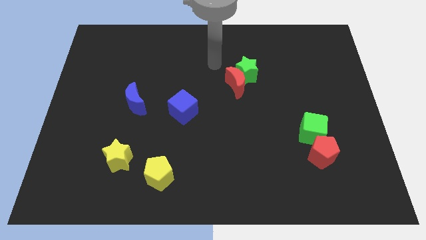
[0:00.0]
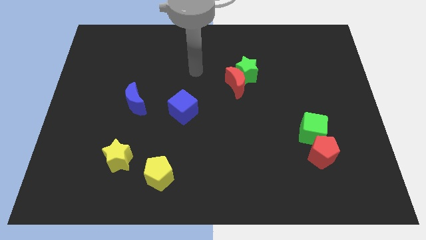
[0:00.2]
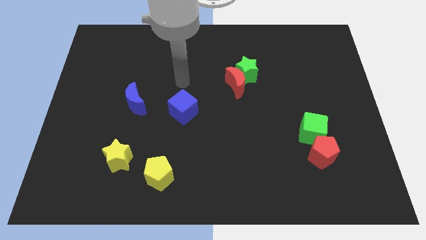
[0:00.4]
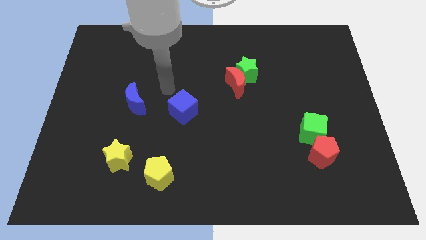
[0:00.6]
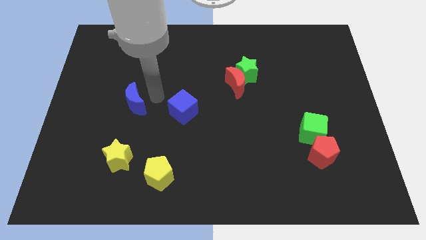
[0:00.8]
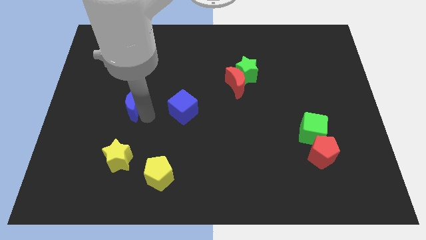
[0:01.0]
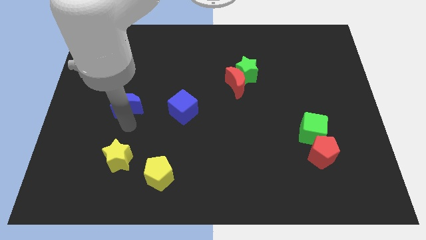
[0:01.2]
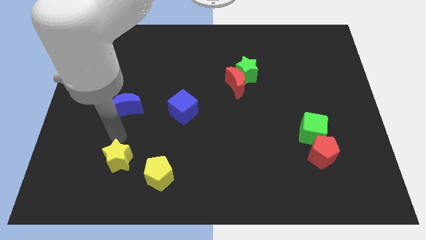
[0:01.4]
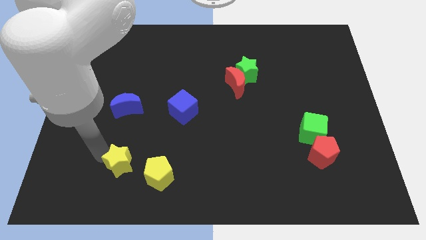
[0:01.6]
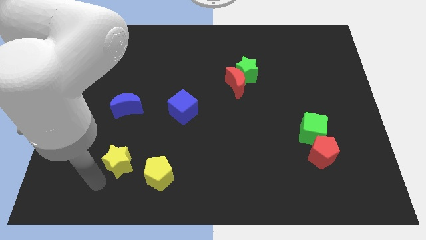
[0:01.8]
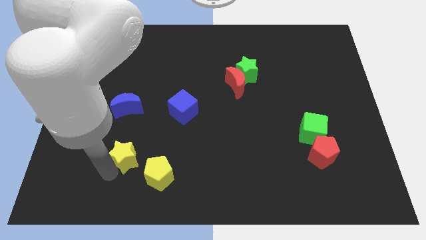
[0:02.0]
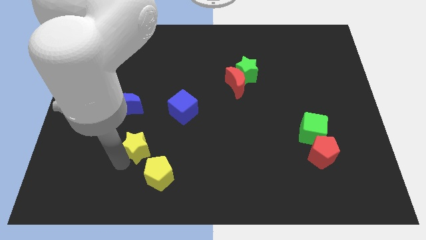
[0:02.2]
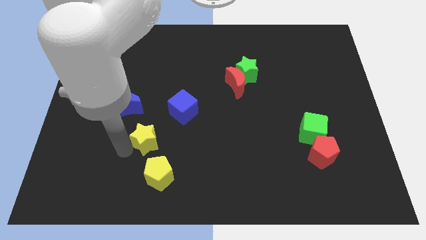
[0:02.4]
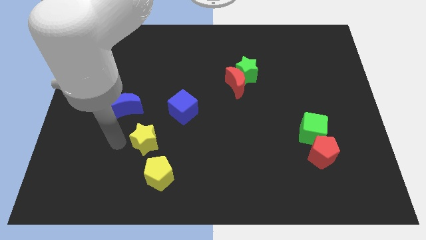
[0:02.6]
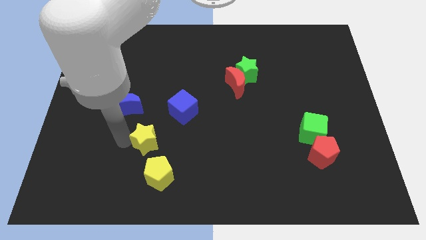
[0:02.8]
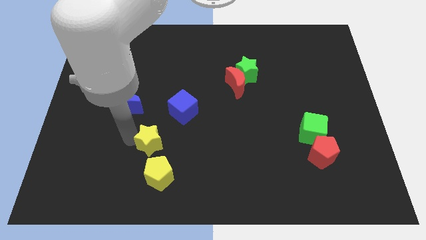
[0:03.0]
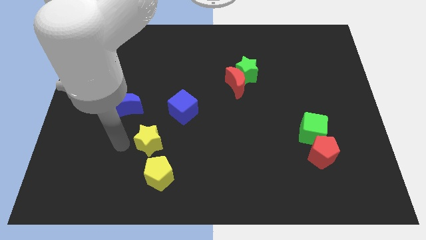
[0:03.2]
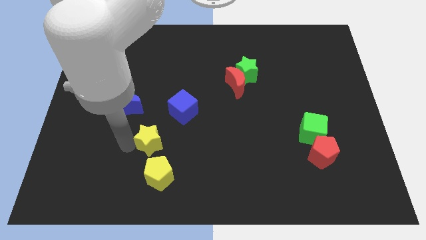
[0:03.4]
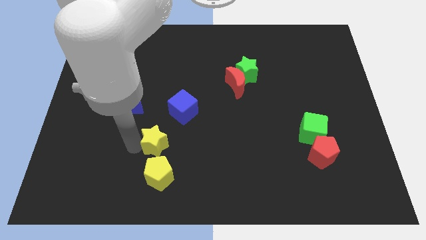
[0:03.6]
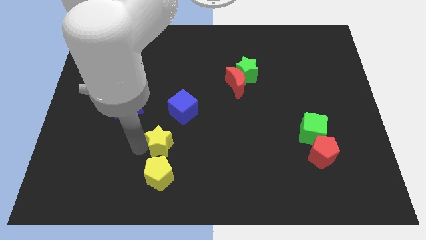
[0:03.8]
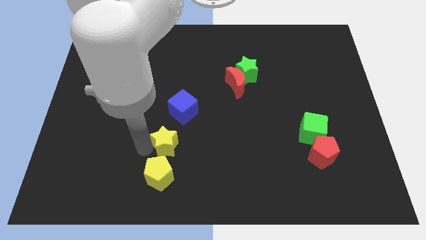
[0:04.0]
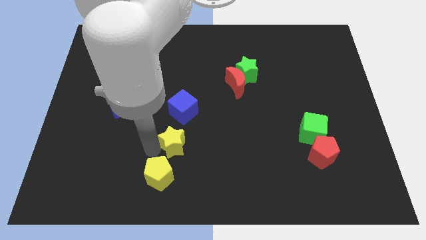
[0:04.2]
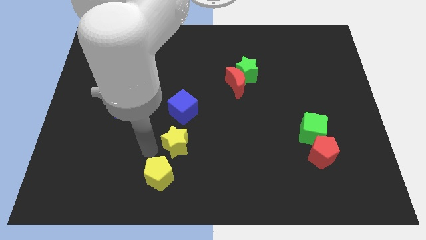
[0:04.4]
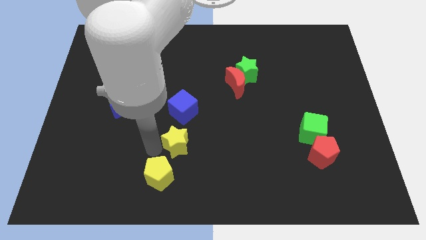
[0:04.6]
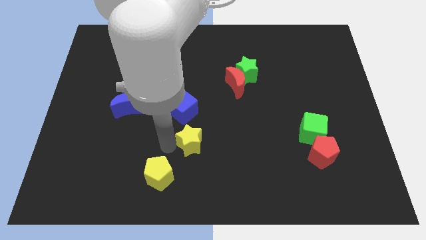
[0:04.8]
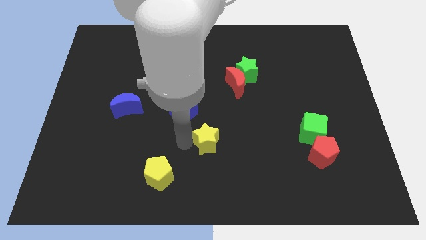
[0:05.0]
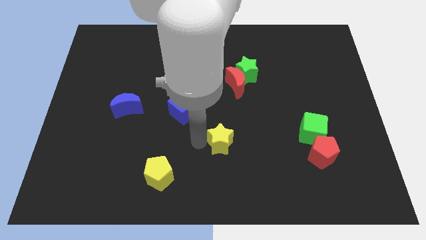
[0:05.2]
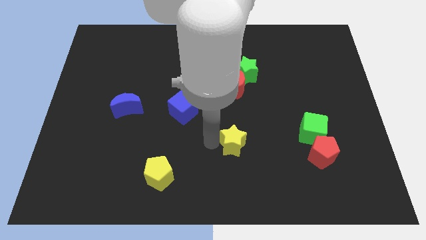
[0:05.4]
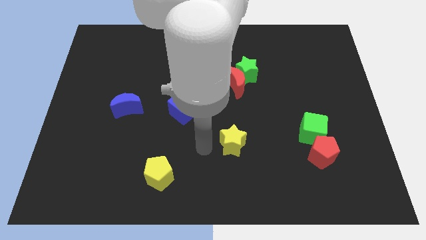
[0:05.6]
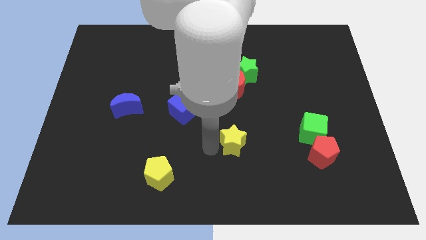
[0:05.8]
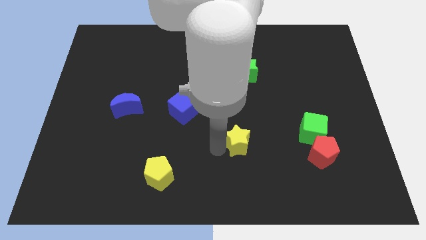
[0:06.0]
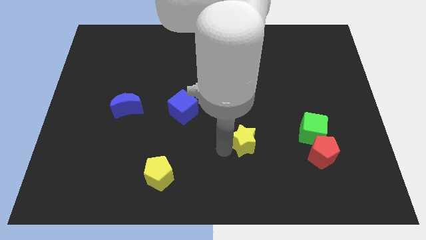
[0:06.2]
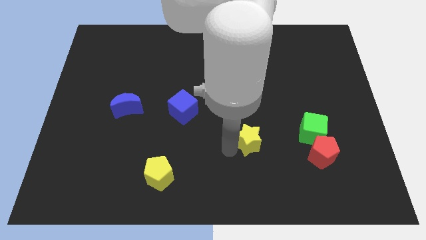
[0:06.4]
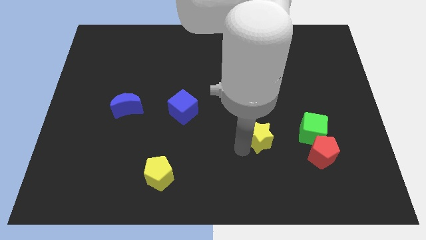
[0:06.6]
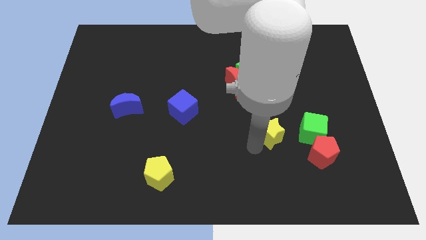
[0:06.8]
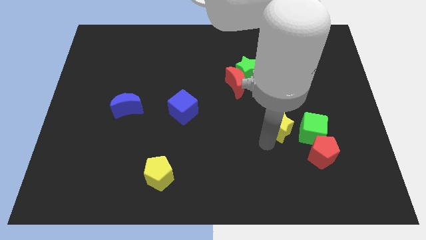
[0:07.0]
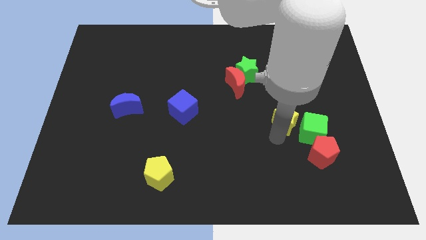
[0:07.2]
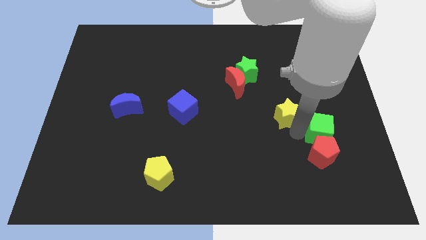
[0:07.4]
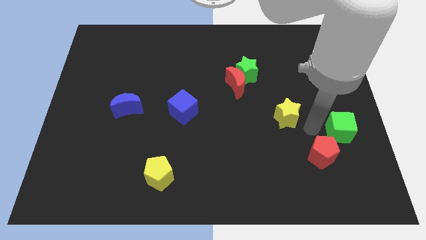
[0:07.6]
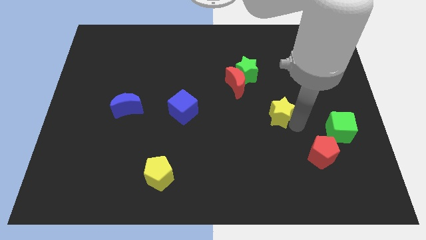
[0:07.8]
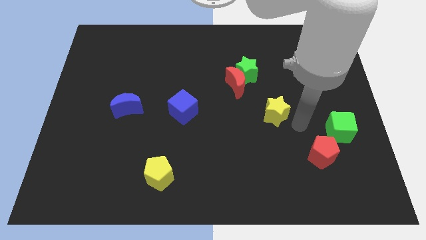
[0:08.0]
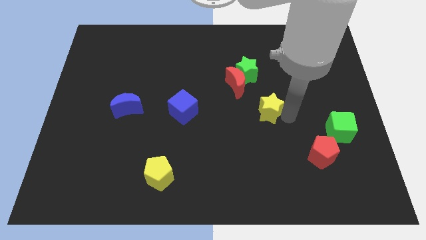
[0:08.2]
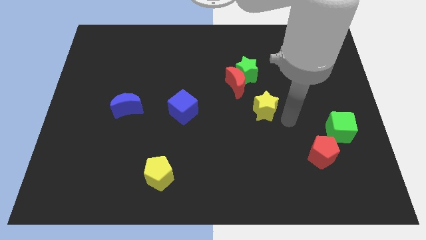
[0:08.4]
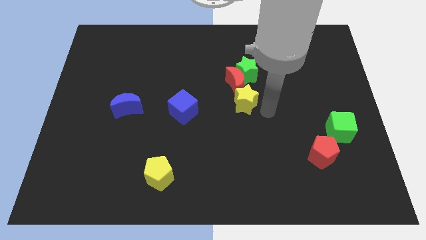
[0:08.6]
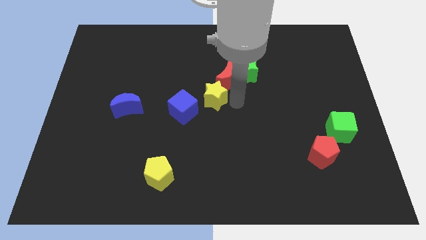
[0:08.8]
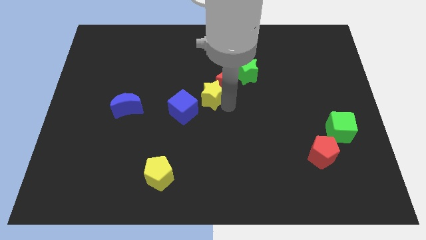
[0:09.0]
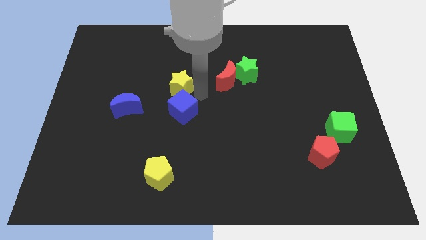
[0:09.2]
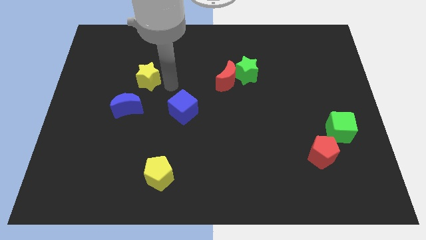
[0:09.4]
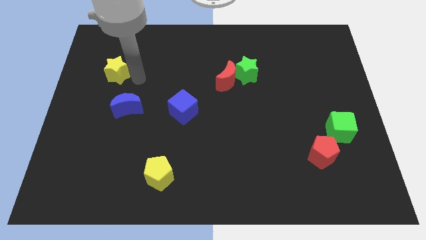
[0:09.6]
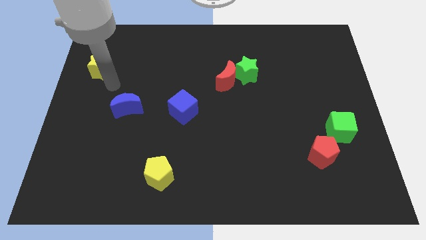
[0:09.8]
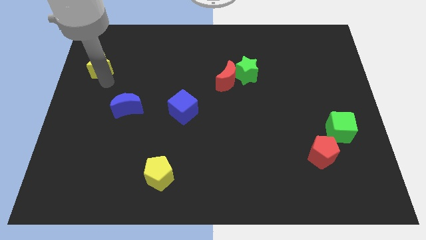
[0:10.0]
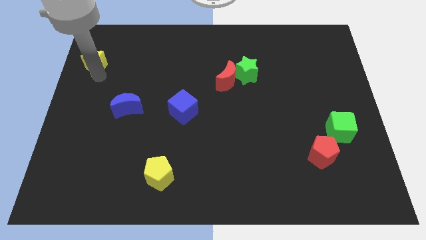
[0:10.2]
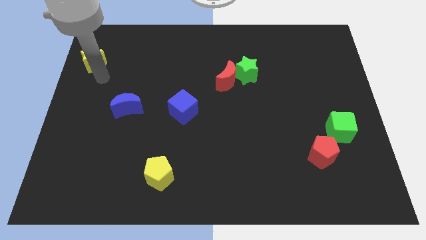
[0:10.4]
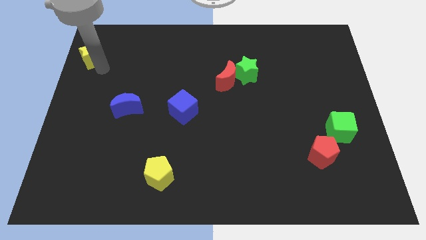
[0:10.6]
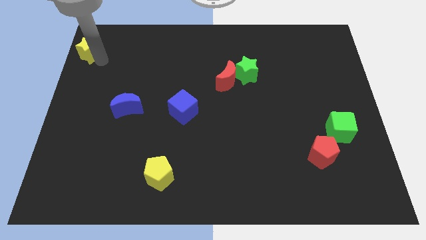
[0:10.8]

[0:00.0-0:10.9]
push the yellow star to the top left

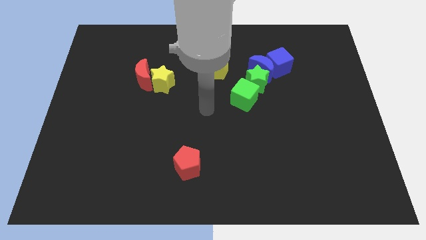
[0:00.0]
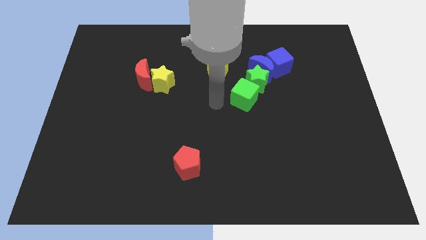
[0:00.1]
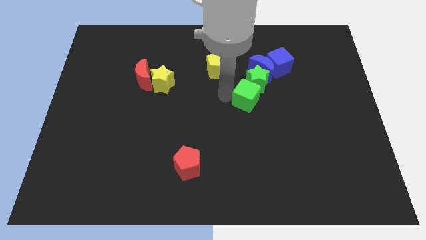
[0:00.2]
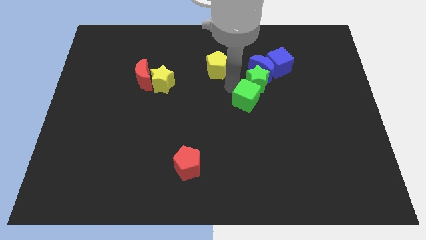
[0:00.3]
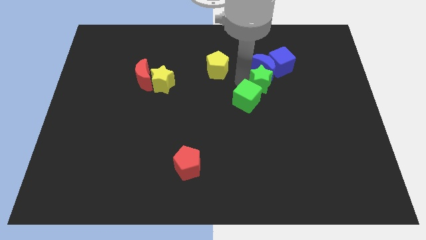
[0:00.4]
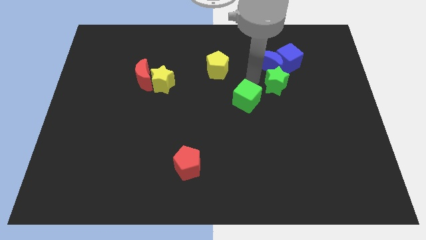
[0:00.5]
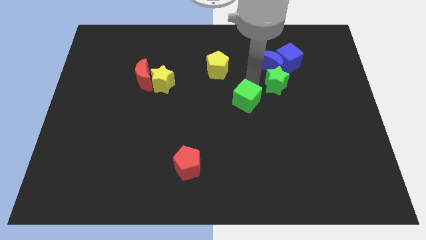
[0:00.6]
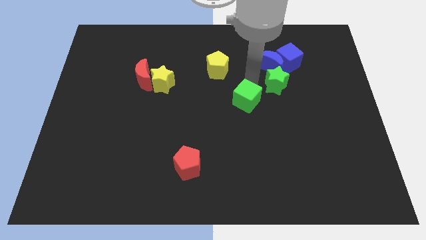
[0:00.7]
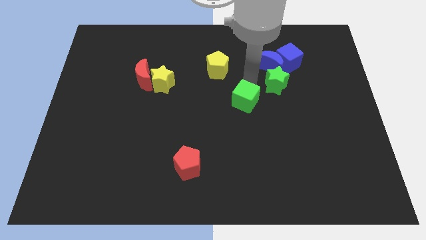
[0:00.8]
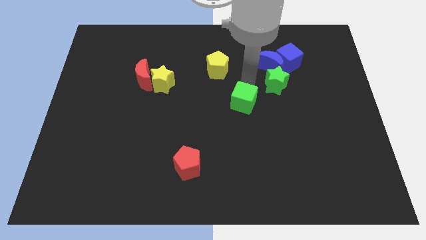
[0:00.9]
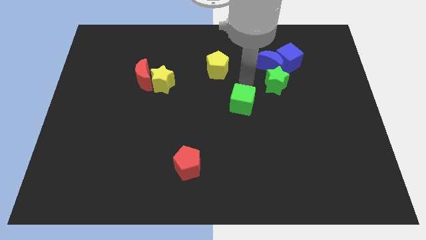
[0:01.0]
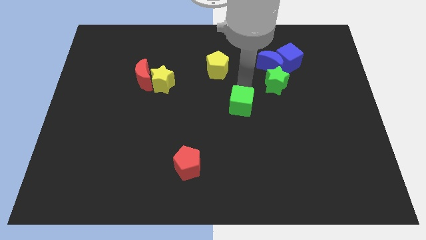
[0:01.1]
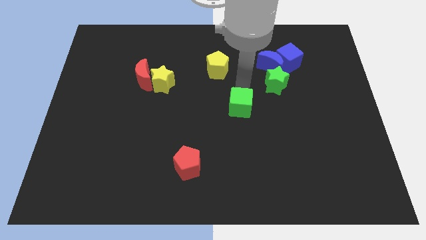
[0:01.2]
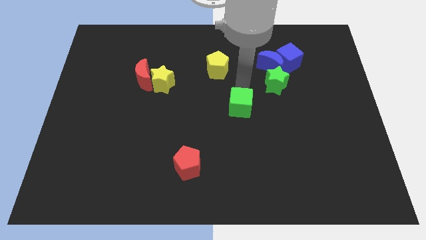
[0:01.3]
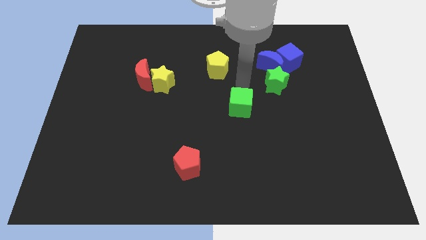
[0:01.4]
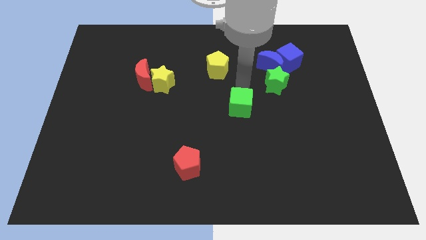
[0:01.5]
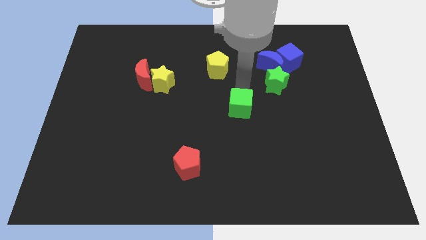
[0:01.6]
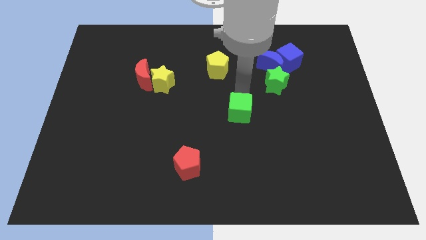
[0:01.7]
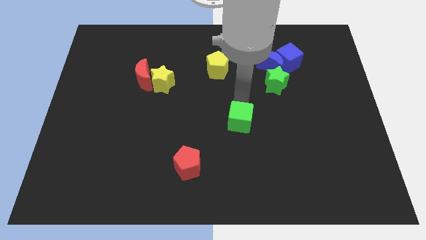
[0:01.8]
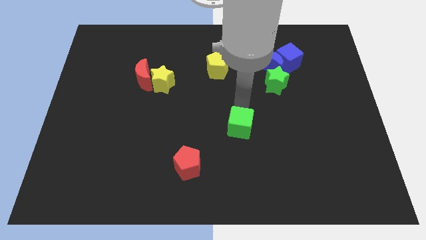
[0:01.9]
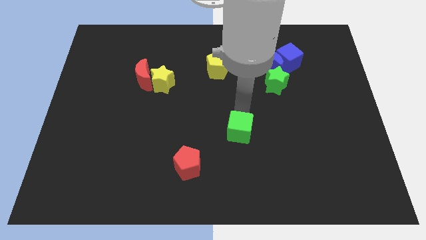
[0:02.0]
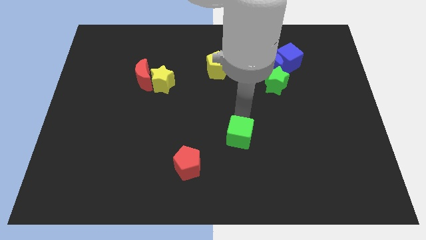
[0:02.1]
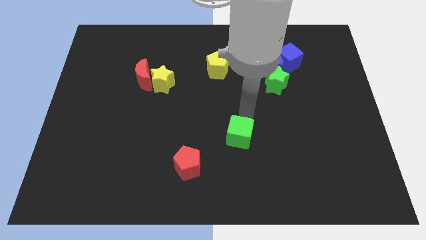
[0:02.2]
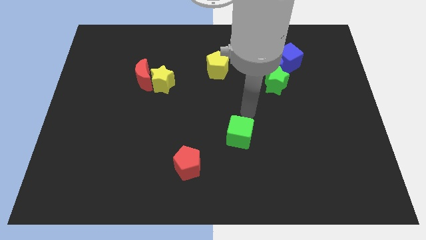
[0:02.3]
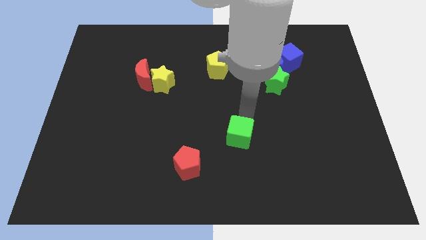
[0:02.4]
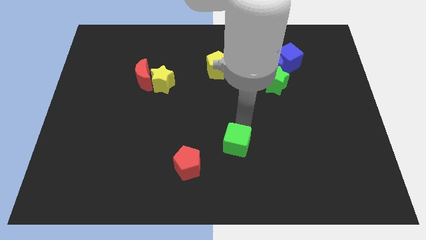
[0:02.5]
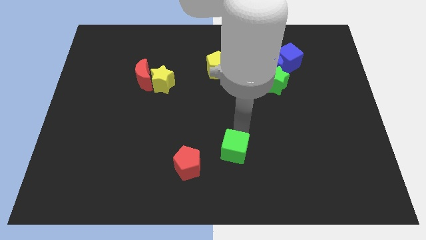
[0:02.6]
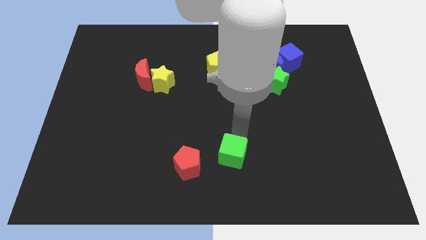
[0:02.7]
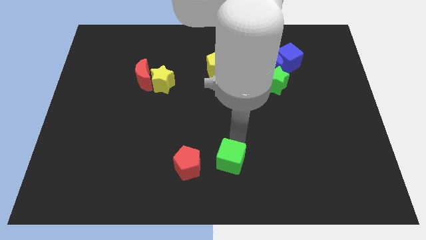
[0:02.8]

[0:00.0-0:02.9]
move the green cube to the bottom side
